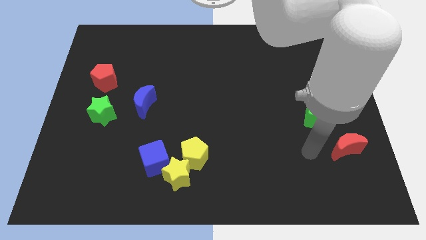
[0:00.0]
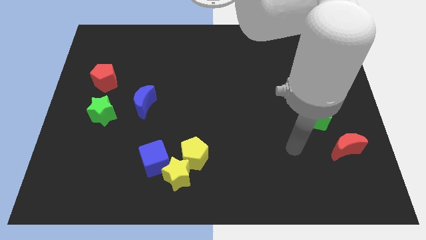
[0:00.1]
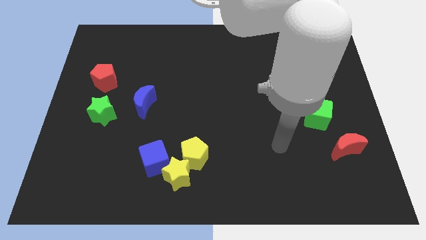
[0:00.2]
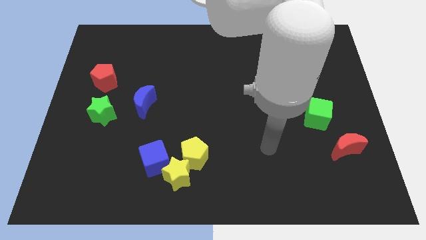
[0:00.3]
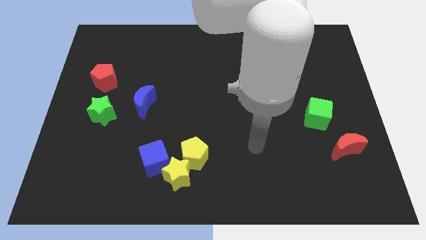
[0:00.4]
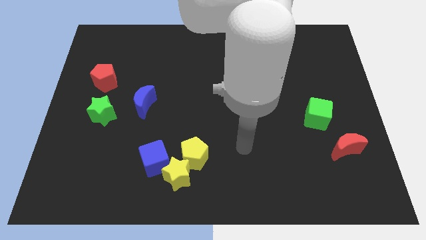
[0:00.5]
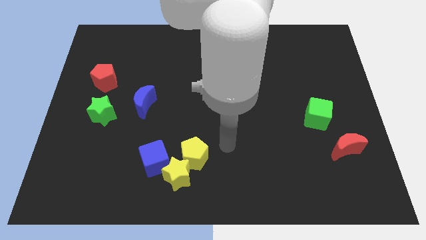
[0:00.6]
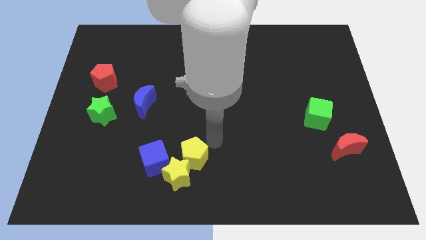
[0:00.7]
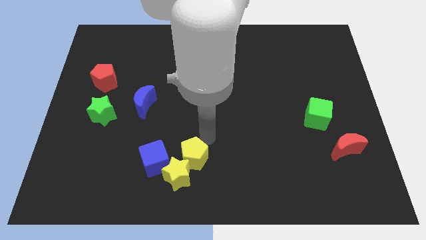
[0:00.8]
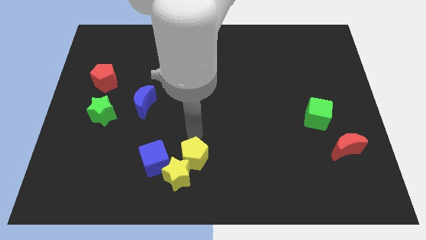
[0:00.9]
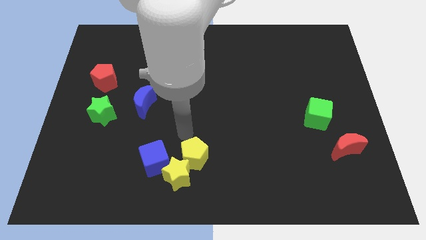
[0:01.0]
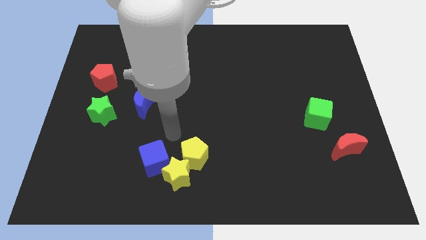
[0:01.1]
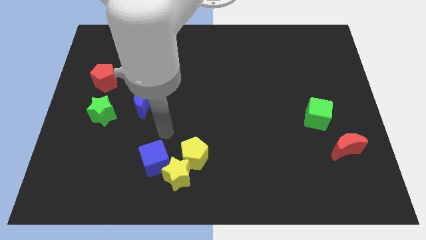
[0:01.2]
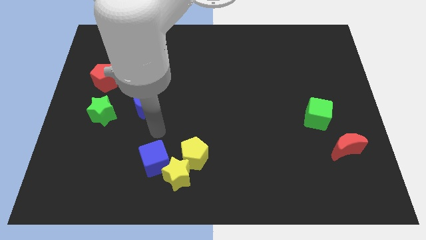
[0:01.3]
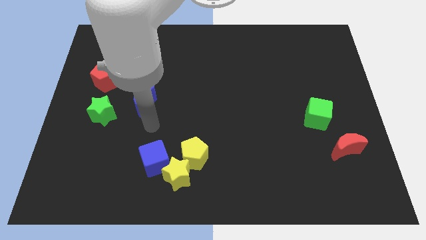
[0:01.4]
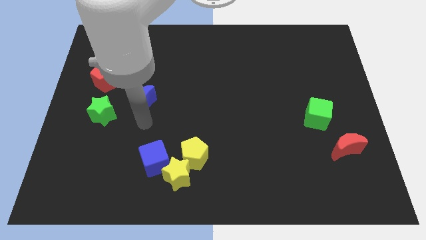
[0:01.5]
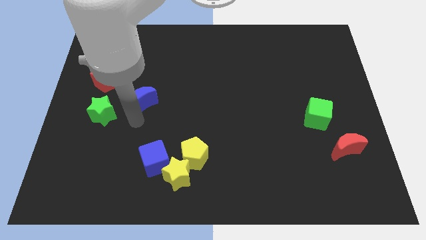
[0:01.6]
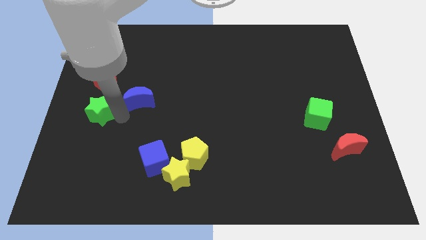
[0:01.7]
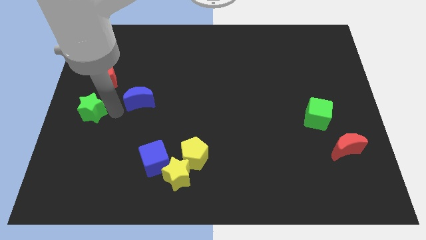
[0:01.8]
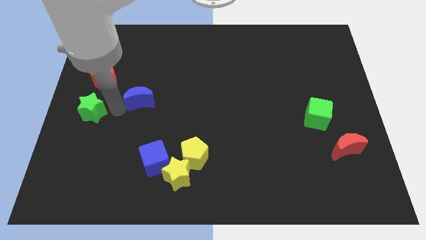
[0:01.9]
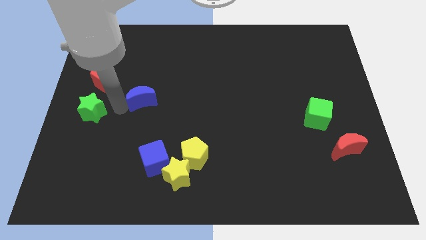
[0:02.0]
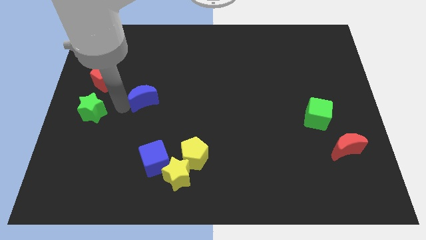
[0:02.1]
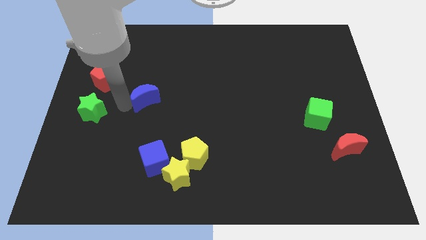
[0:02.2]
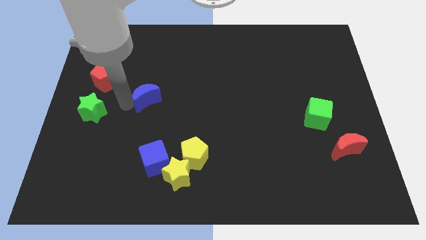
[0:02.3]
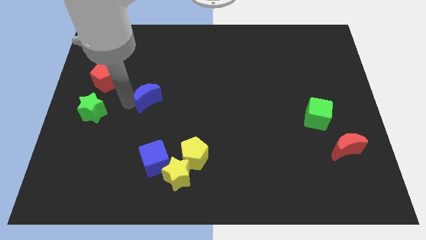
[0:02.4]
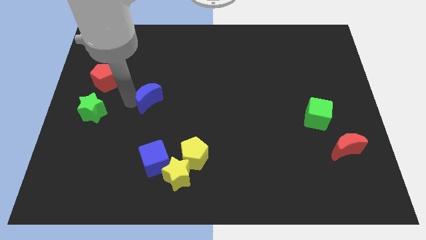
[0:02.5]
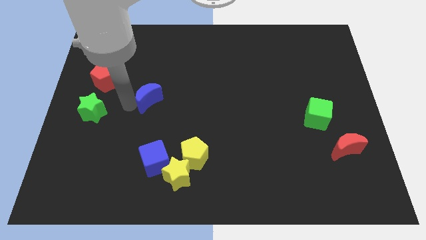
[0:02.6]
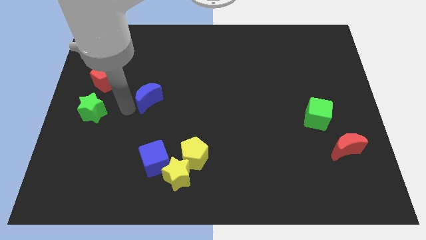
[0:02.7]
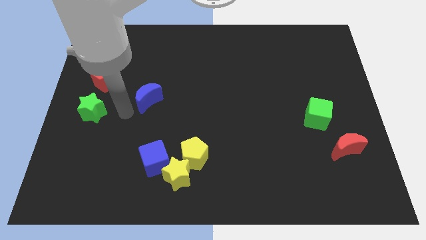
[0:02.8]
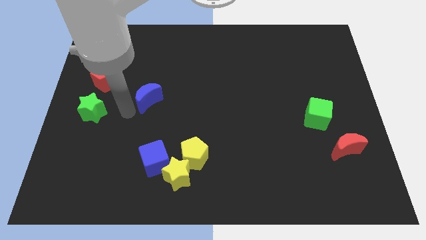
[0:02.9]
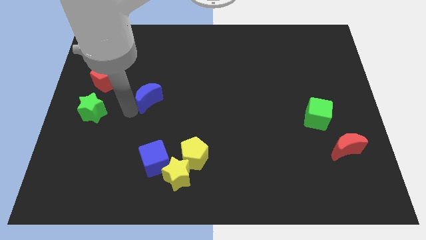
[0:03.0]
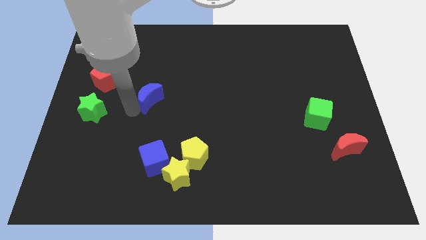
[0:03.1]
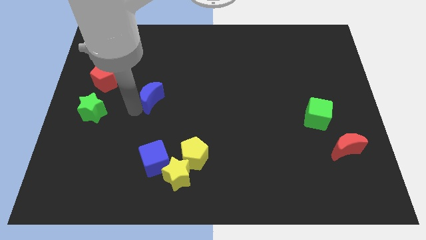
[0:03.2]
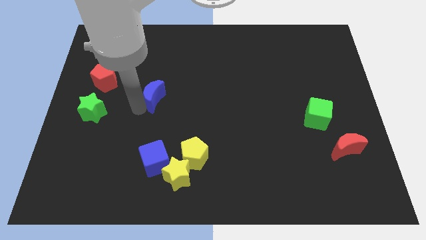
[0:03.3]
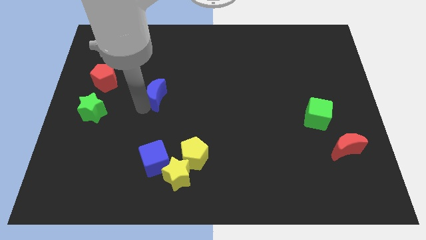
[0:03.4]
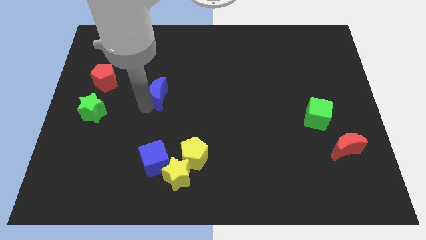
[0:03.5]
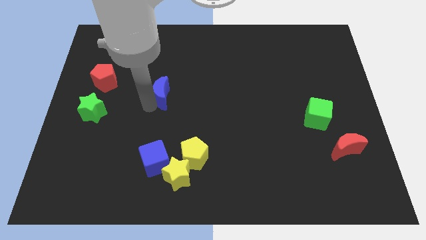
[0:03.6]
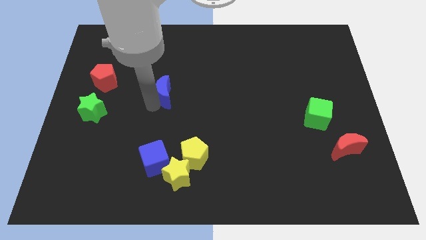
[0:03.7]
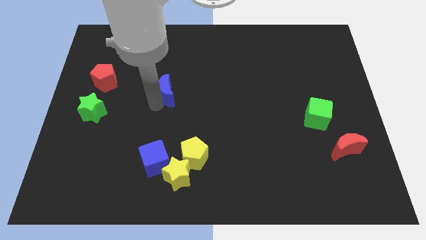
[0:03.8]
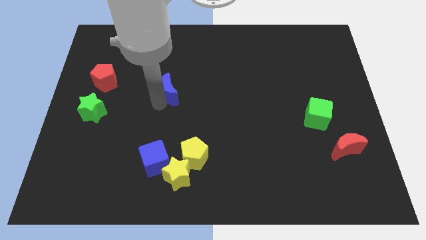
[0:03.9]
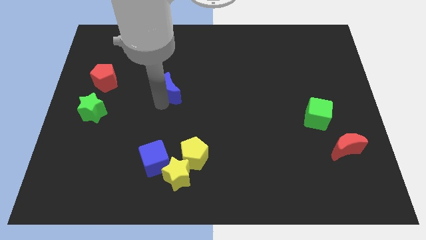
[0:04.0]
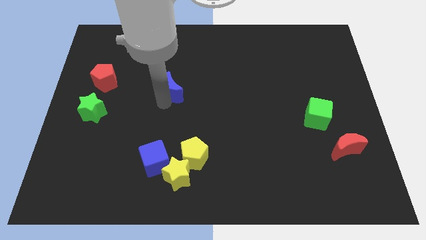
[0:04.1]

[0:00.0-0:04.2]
slightly slide the blue moon up and to the right diagonally

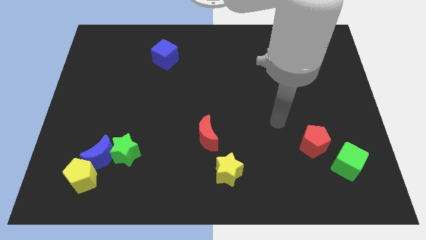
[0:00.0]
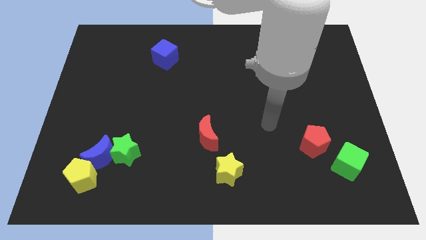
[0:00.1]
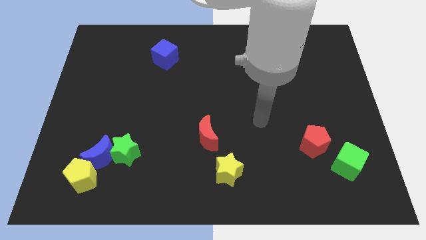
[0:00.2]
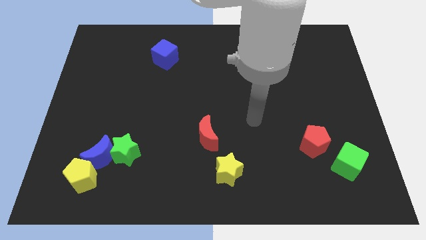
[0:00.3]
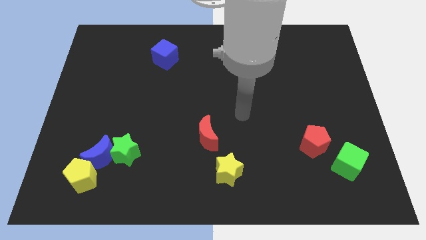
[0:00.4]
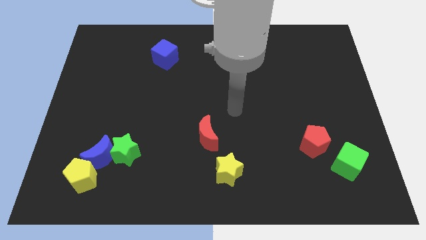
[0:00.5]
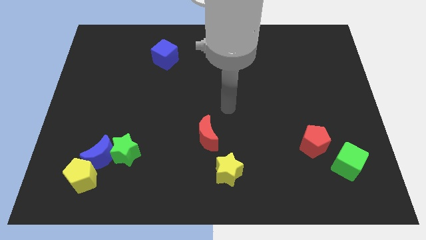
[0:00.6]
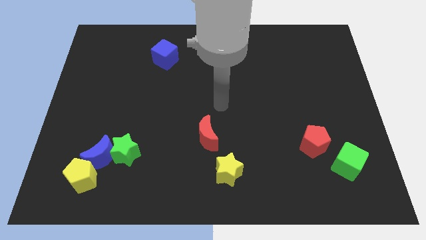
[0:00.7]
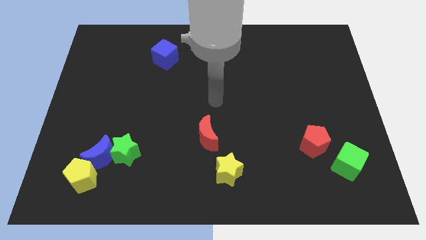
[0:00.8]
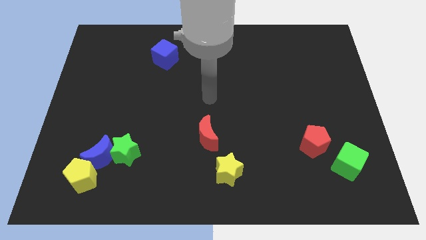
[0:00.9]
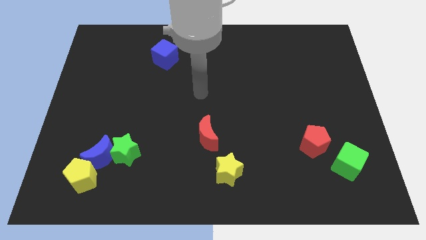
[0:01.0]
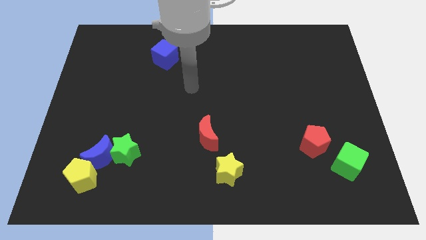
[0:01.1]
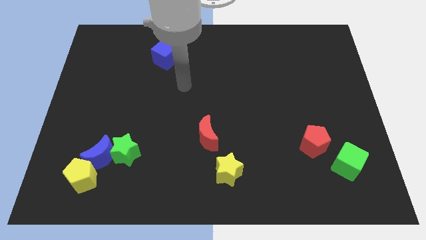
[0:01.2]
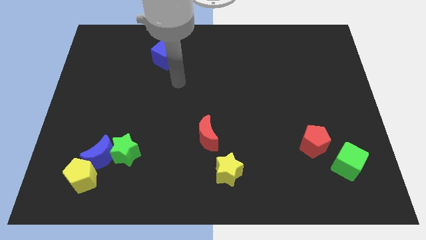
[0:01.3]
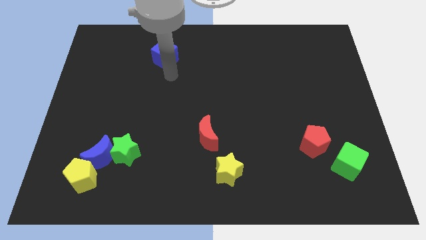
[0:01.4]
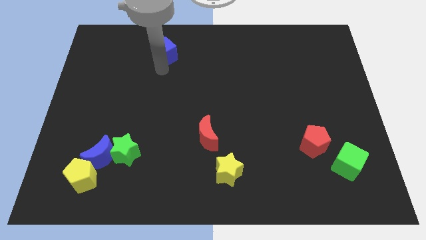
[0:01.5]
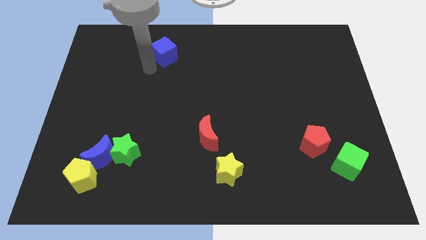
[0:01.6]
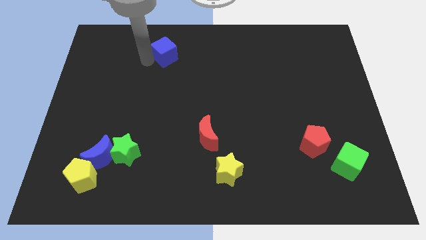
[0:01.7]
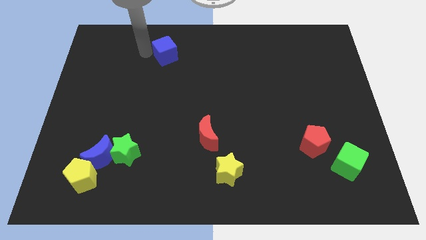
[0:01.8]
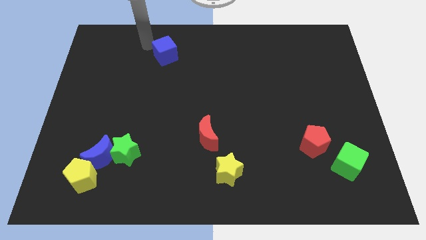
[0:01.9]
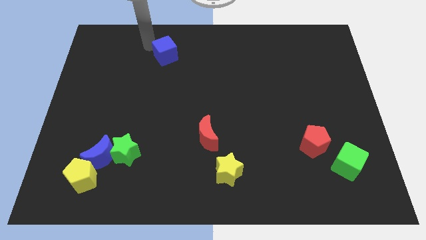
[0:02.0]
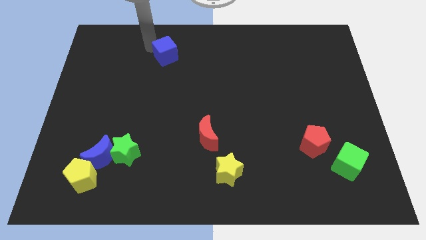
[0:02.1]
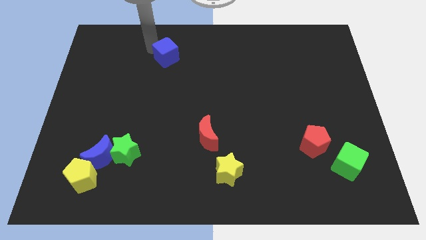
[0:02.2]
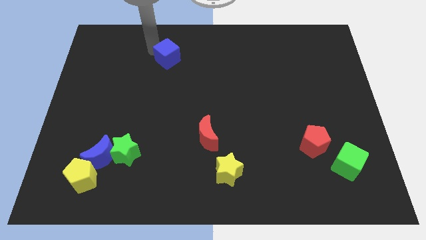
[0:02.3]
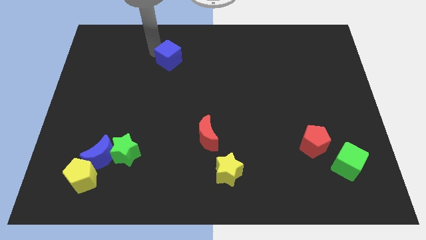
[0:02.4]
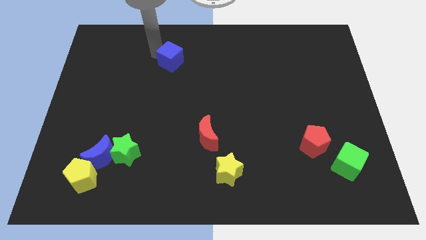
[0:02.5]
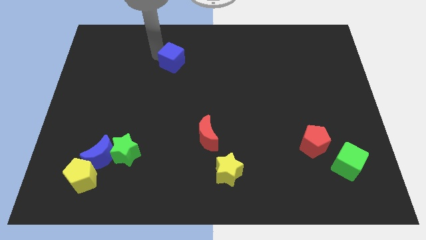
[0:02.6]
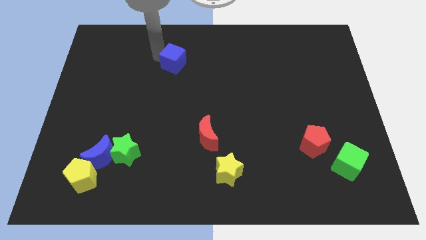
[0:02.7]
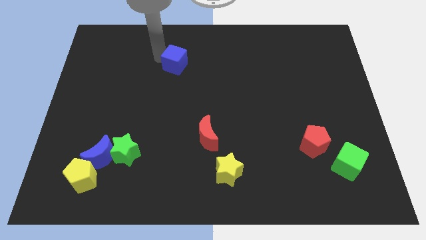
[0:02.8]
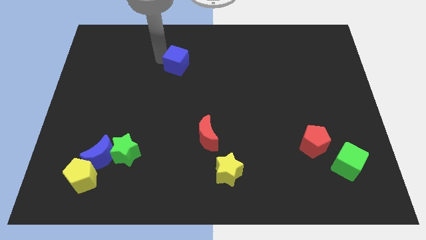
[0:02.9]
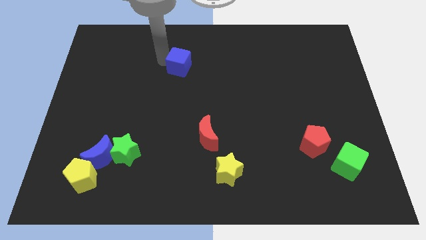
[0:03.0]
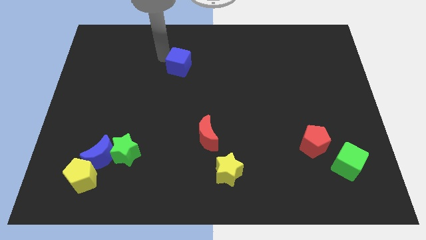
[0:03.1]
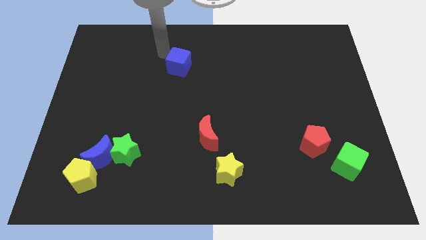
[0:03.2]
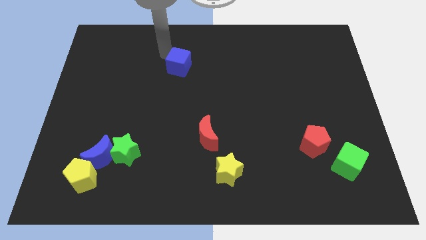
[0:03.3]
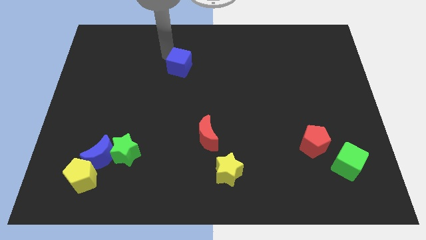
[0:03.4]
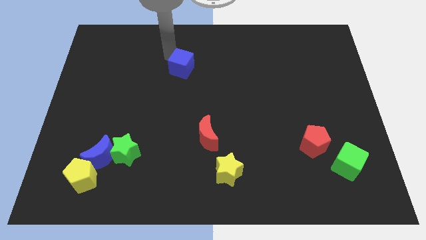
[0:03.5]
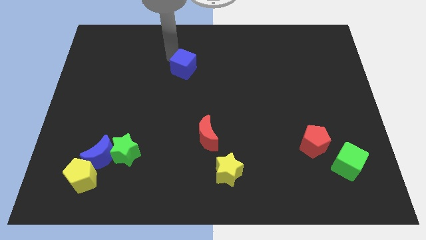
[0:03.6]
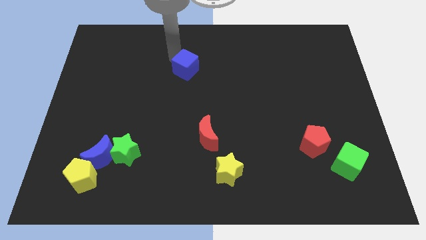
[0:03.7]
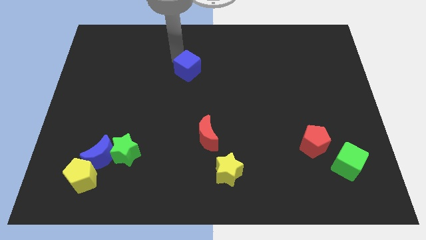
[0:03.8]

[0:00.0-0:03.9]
slightly push the blue cube down and to the right diagonally
